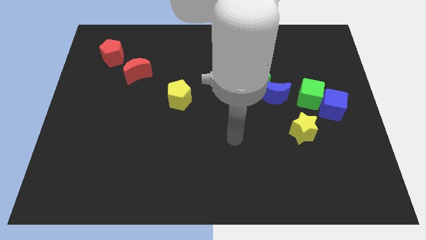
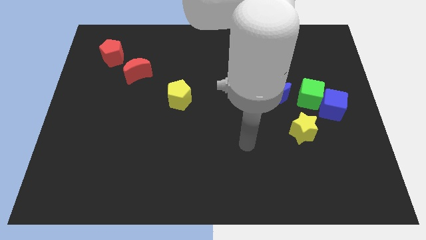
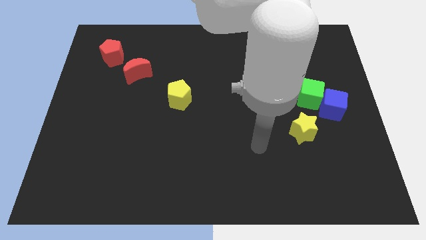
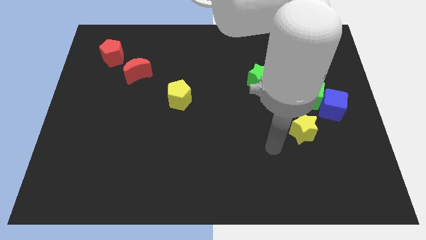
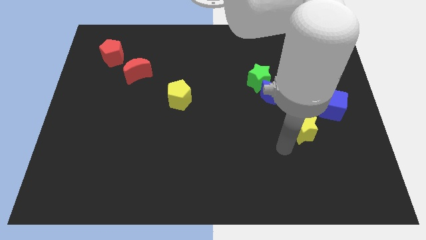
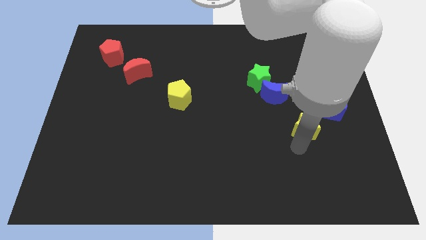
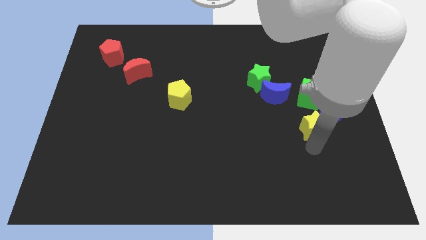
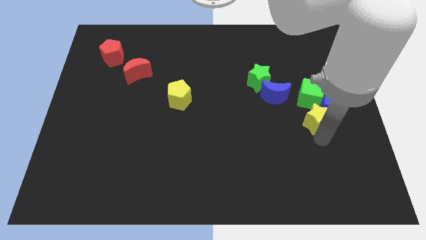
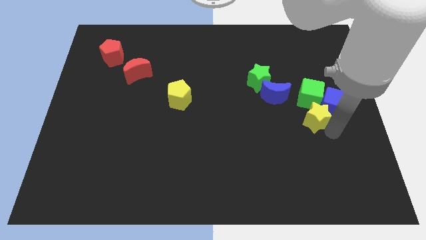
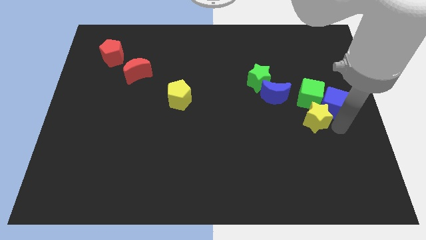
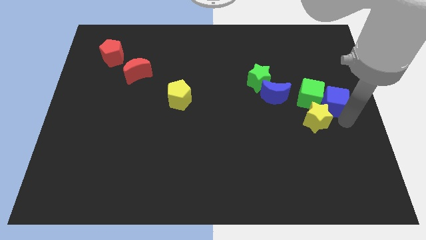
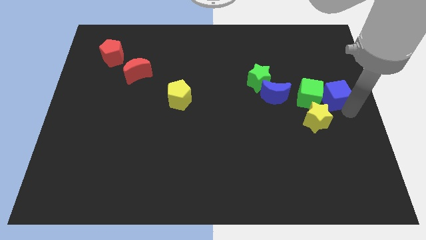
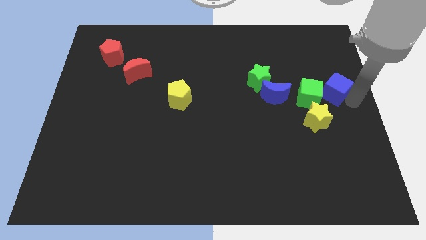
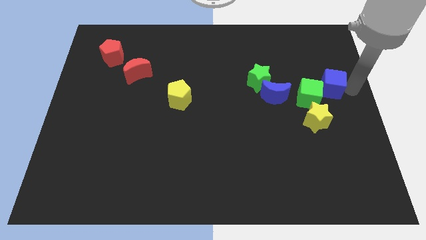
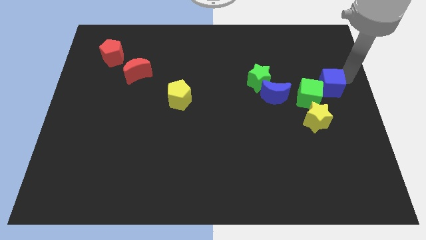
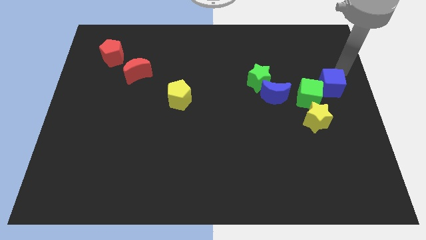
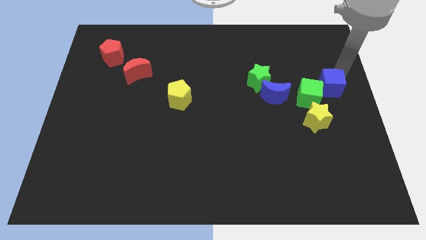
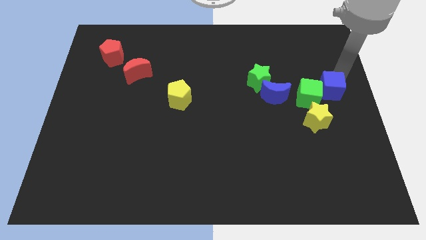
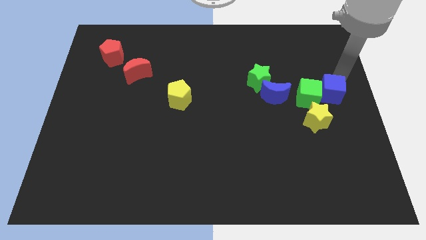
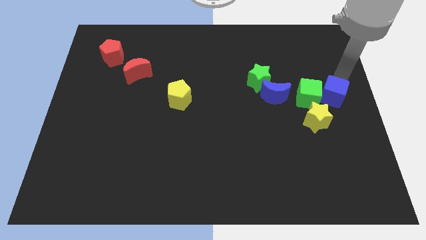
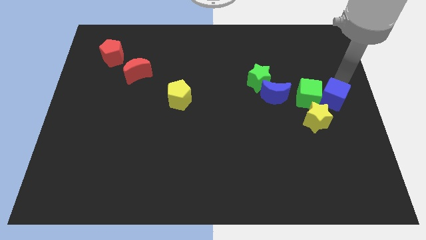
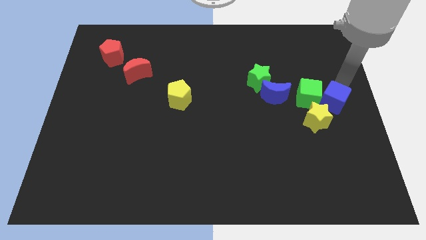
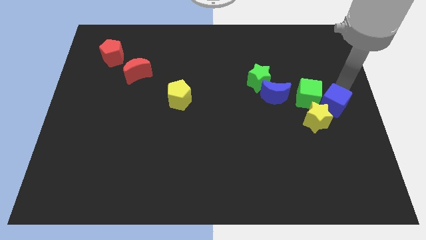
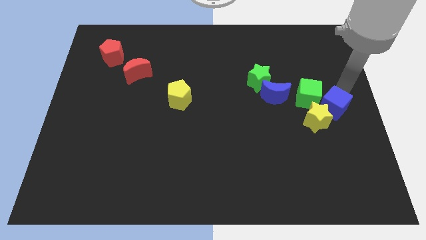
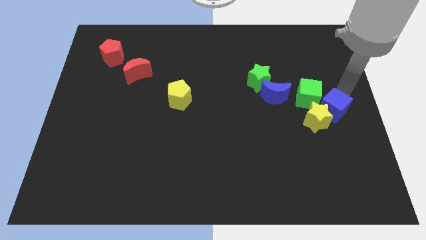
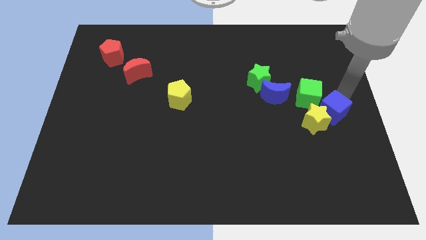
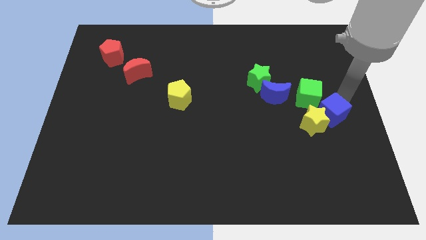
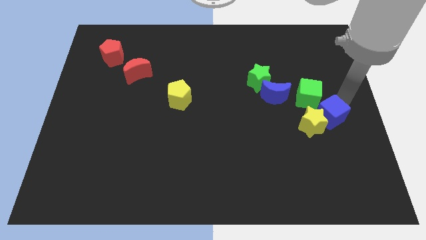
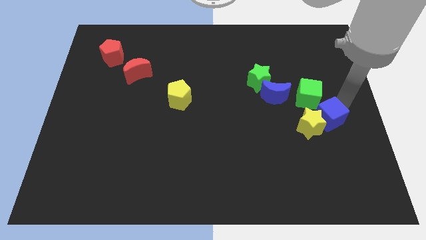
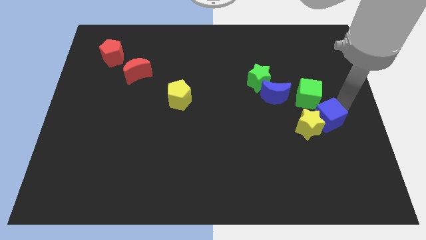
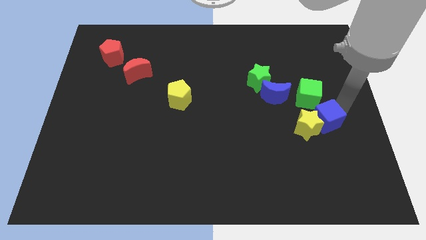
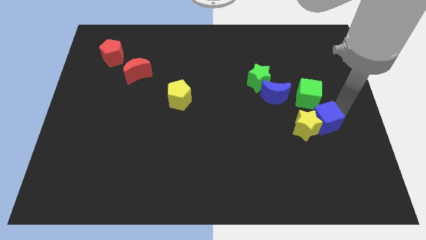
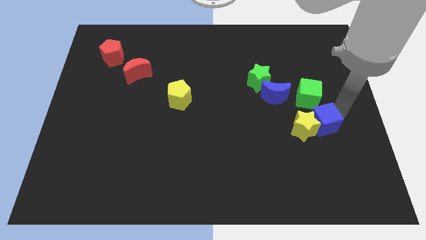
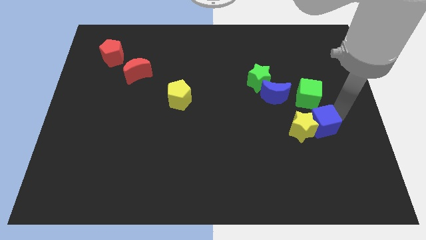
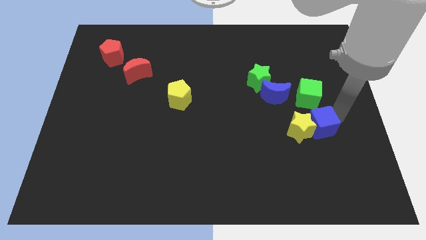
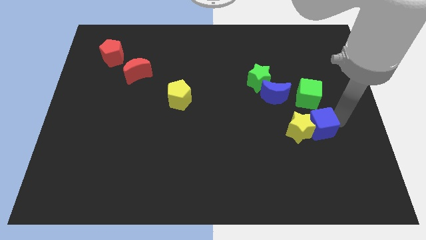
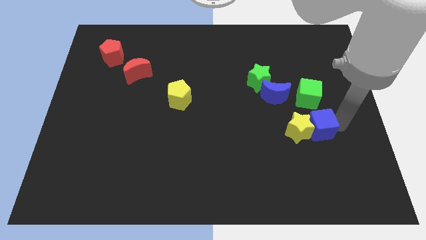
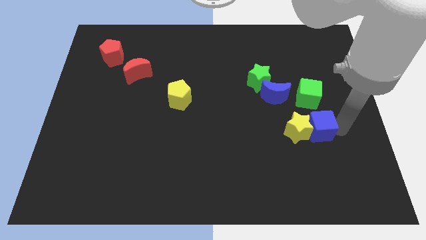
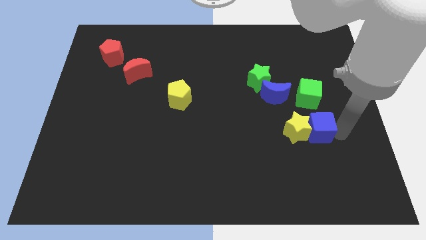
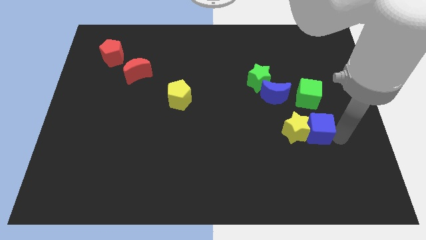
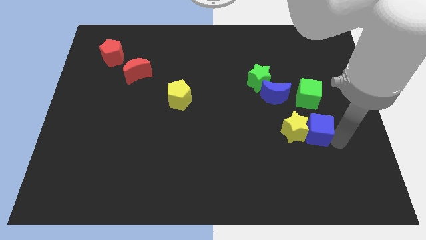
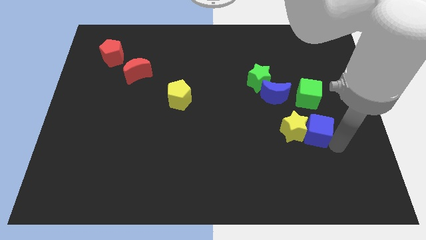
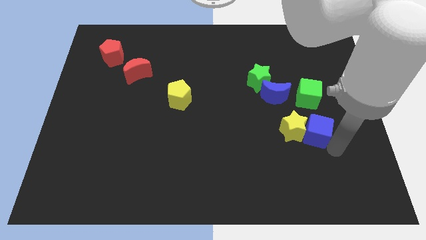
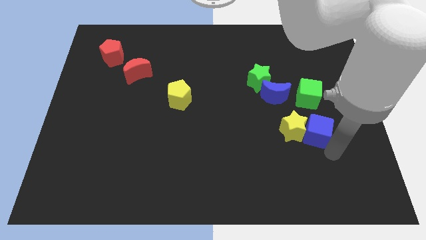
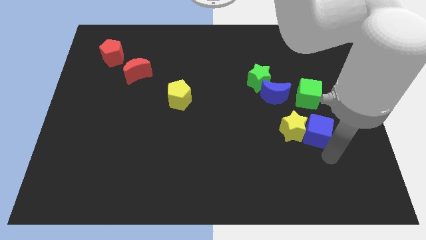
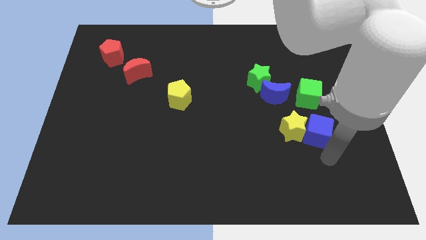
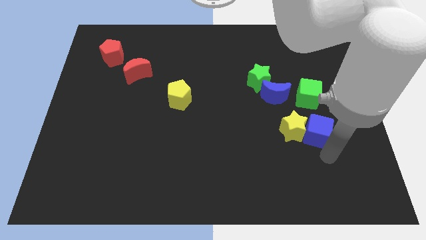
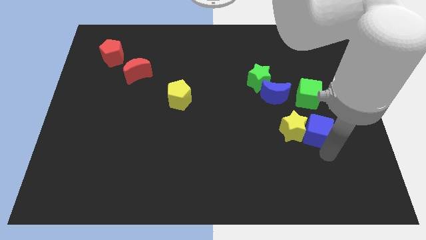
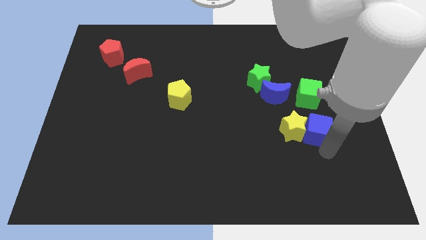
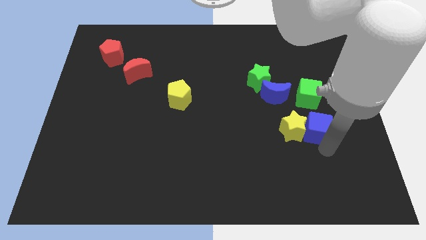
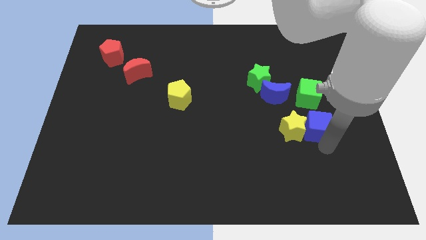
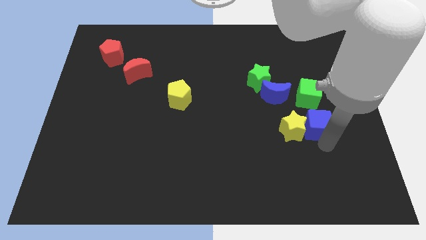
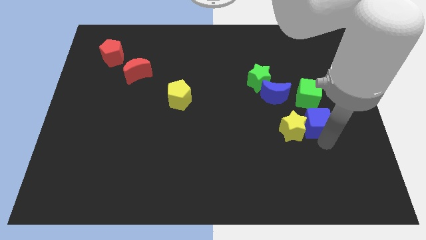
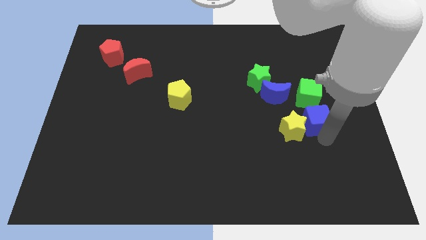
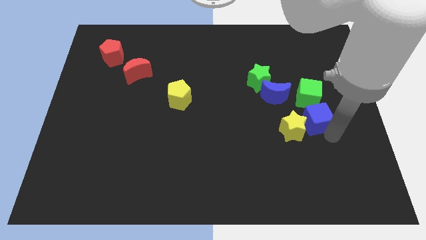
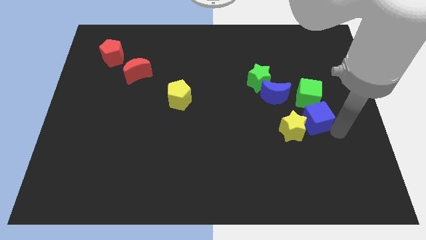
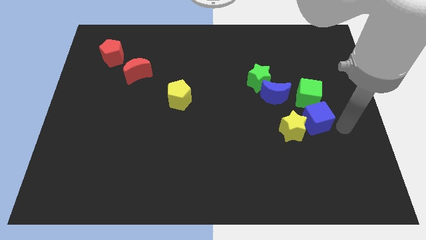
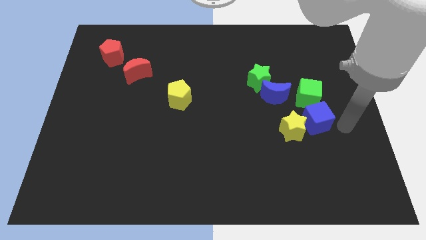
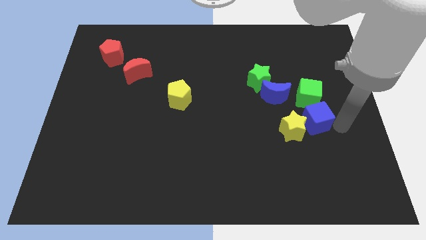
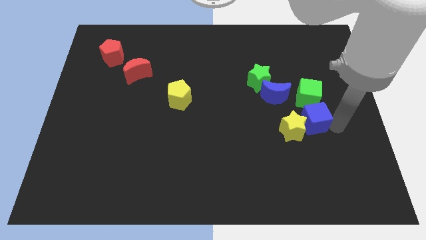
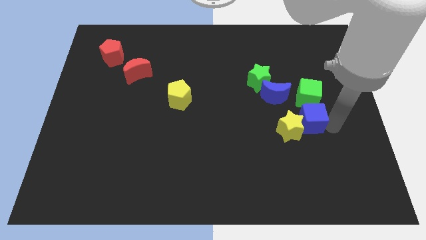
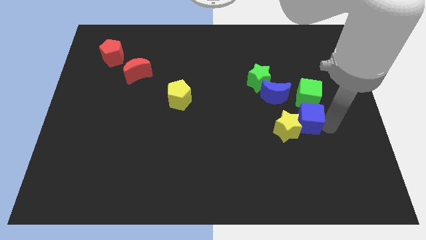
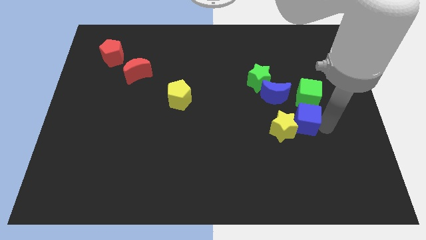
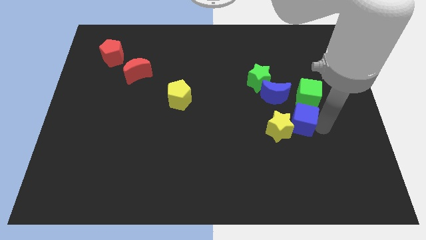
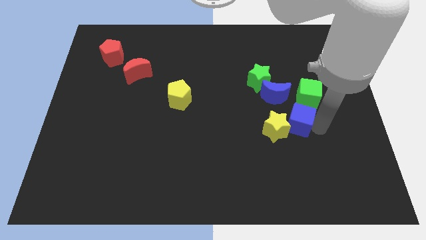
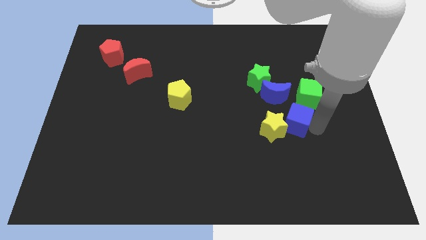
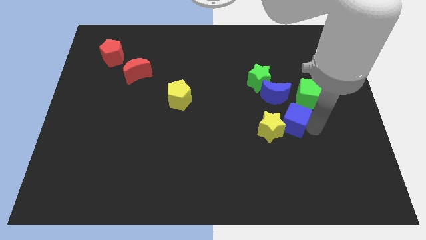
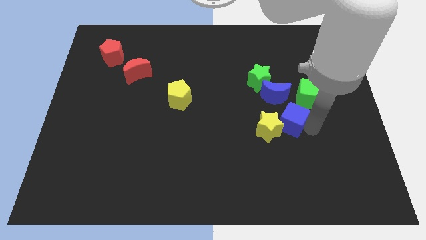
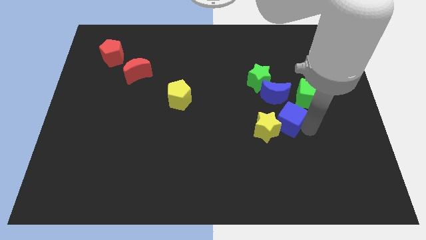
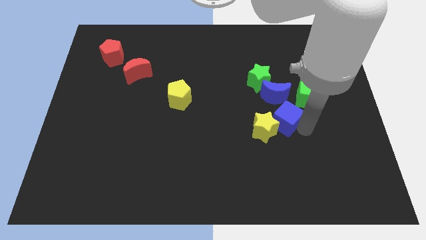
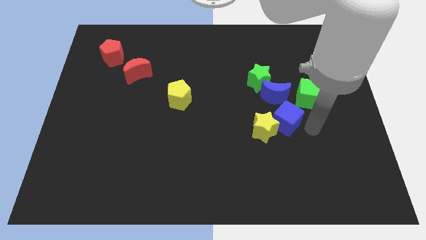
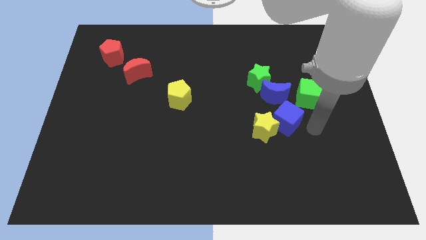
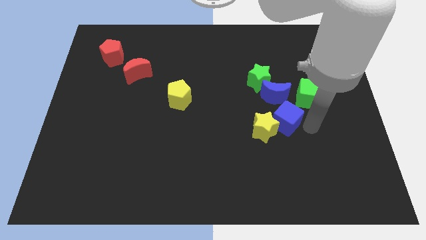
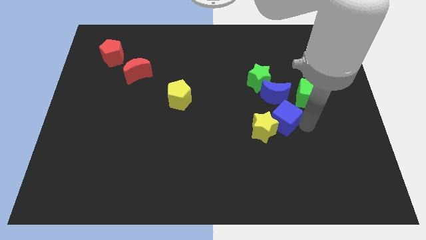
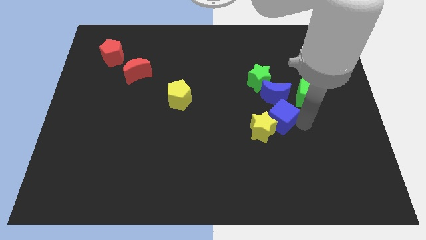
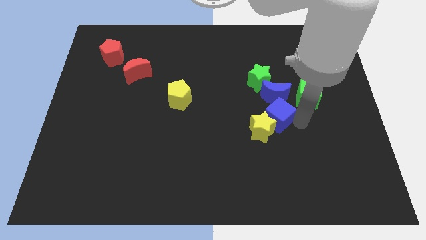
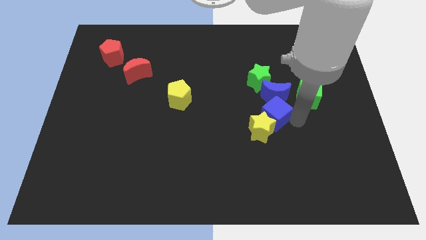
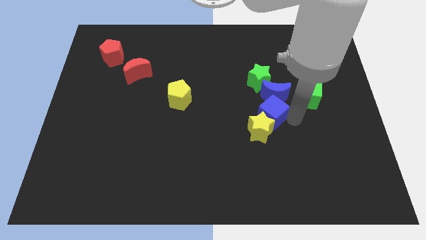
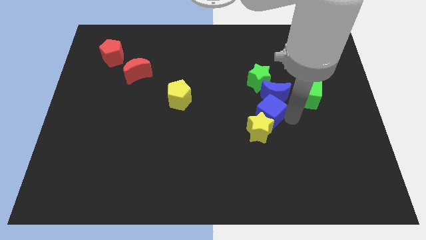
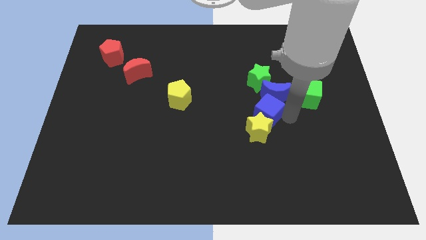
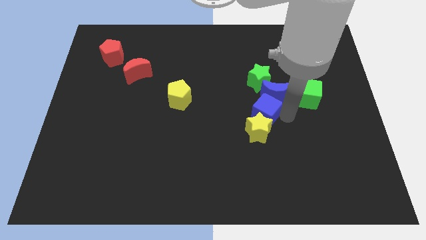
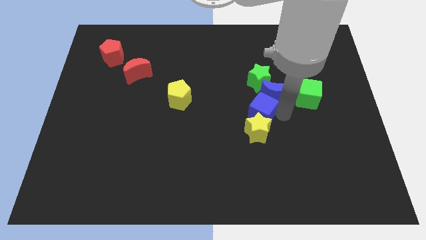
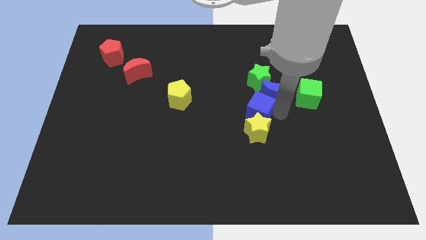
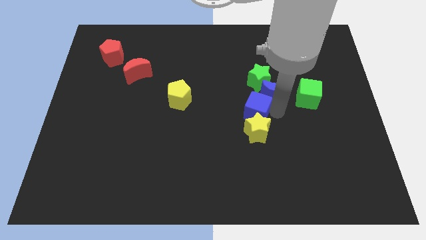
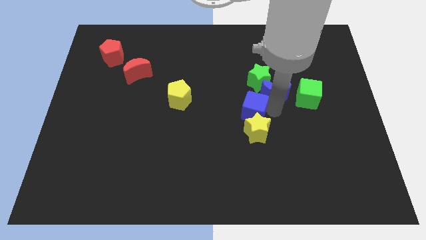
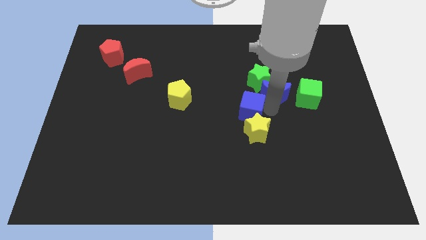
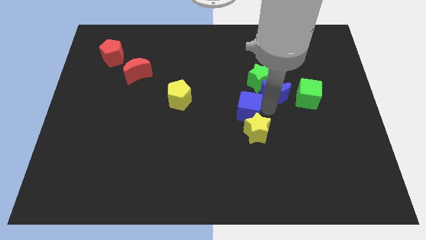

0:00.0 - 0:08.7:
slide the blue cube to the left
